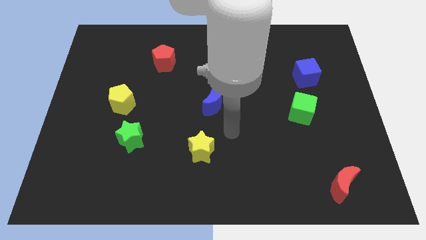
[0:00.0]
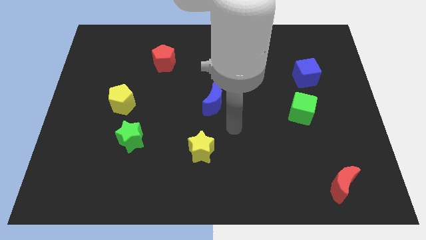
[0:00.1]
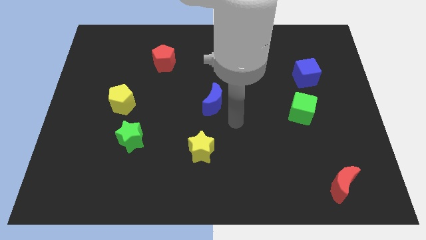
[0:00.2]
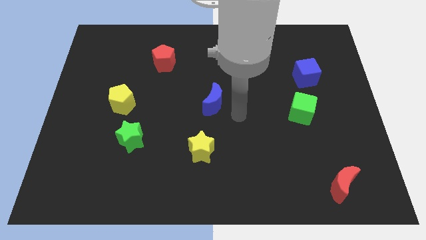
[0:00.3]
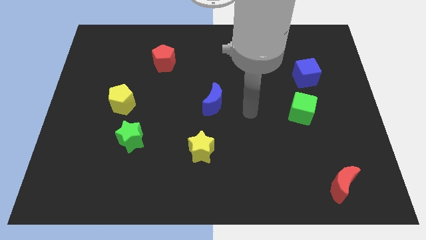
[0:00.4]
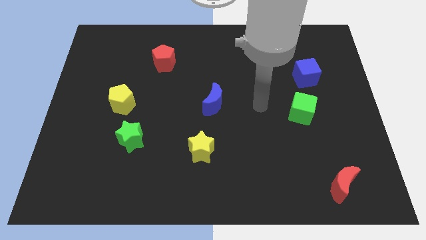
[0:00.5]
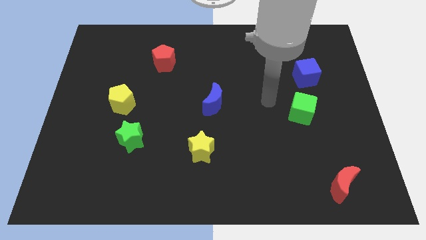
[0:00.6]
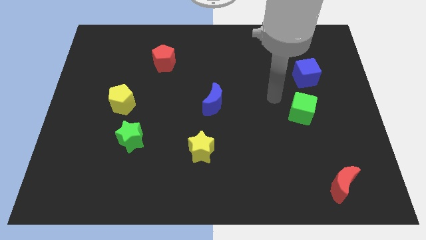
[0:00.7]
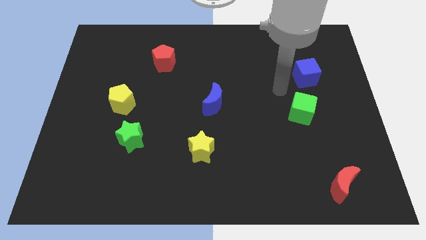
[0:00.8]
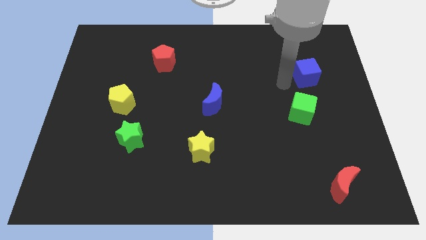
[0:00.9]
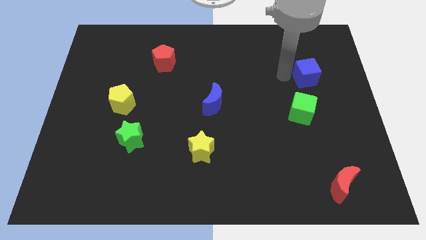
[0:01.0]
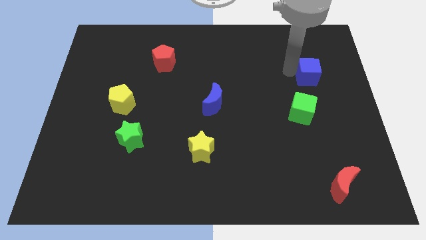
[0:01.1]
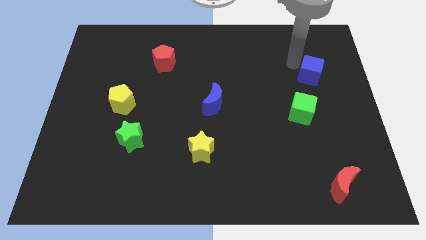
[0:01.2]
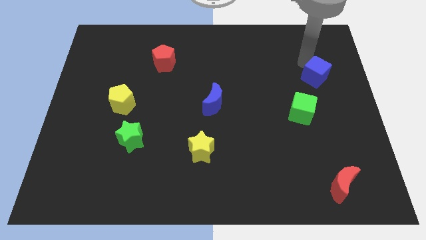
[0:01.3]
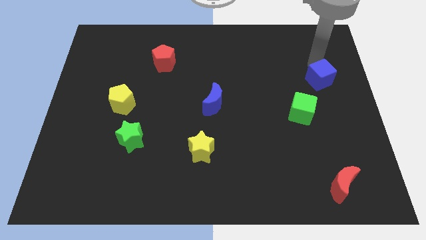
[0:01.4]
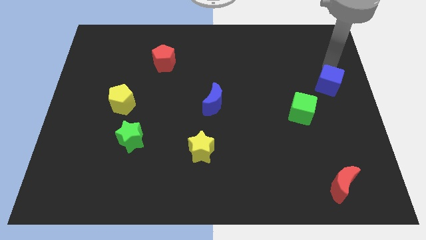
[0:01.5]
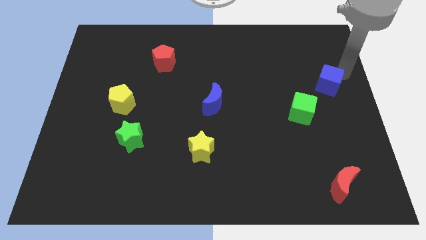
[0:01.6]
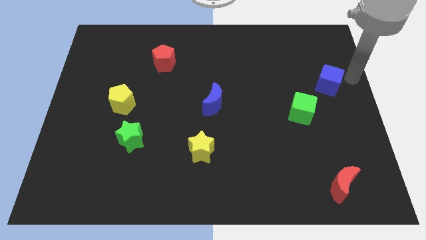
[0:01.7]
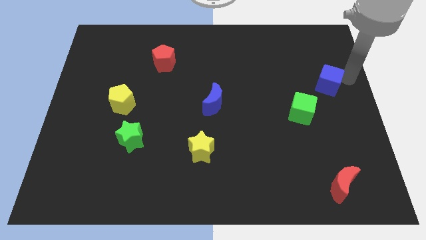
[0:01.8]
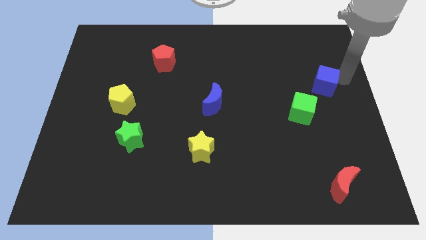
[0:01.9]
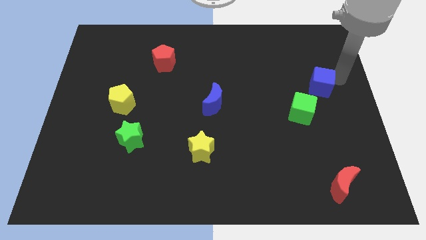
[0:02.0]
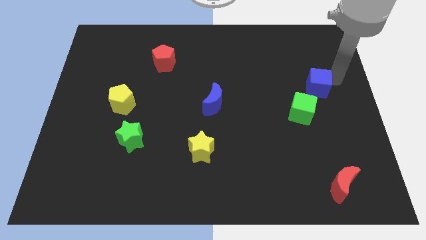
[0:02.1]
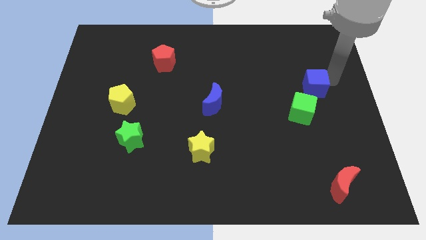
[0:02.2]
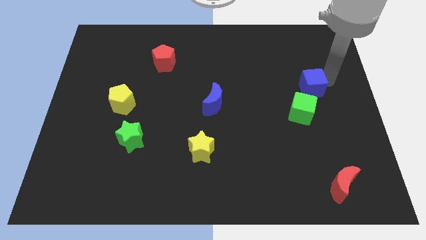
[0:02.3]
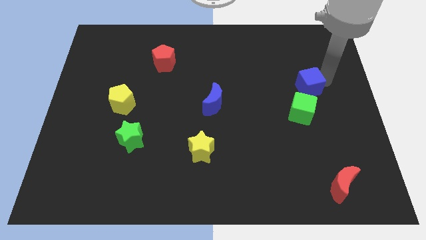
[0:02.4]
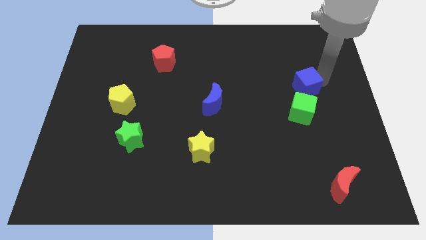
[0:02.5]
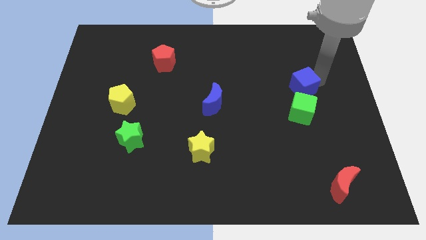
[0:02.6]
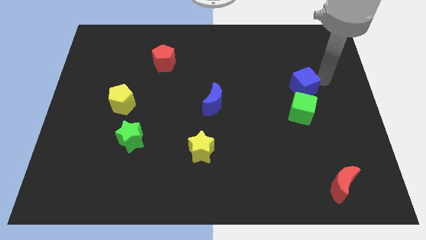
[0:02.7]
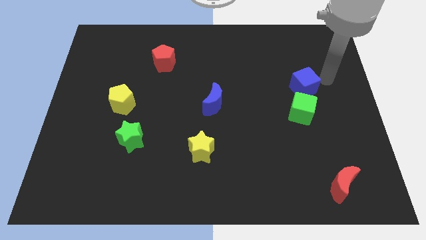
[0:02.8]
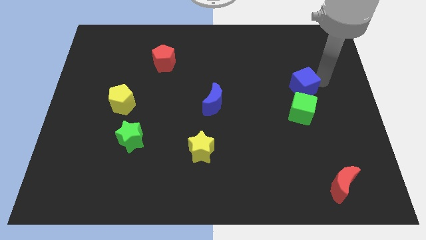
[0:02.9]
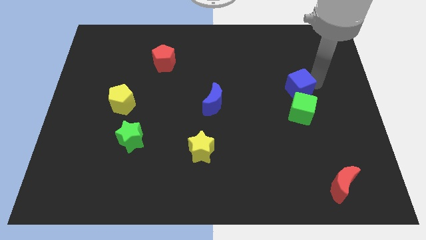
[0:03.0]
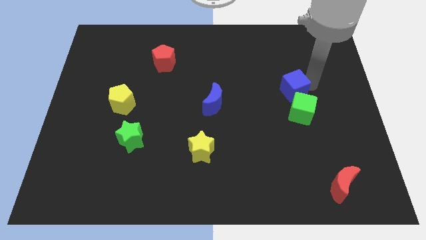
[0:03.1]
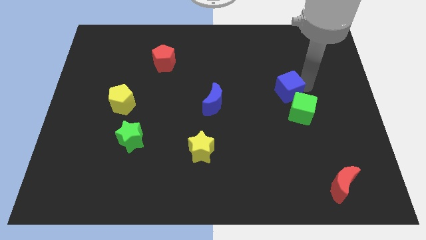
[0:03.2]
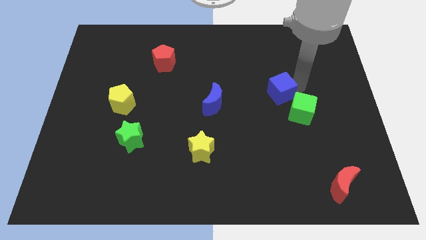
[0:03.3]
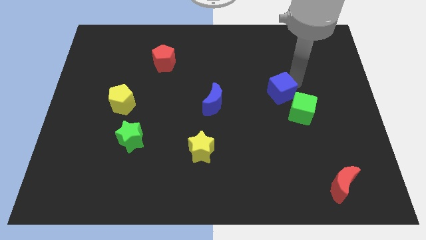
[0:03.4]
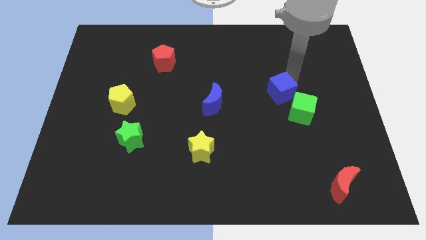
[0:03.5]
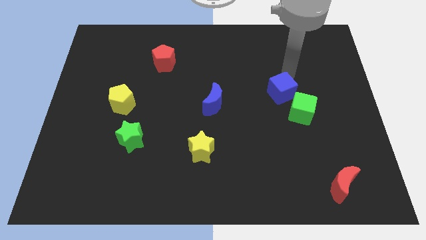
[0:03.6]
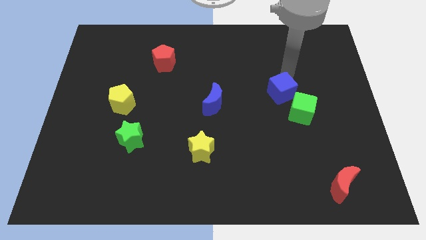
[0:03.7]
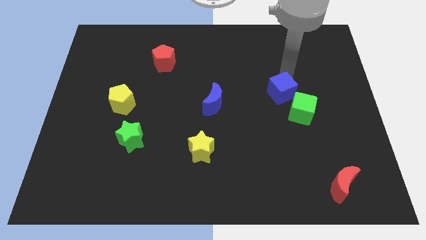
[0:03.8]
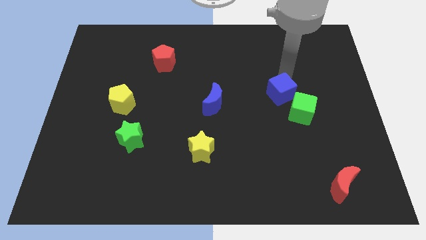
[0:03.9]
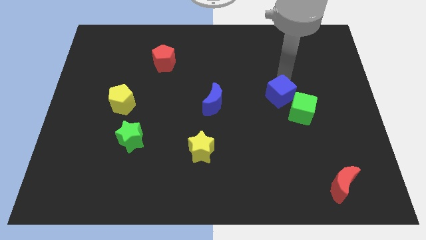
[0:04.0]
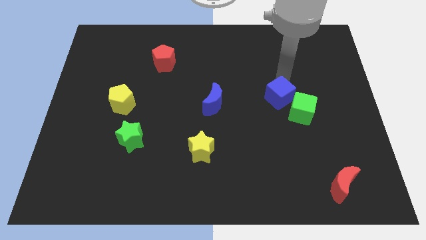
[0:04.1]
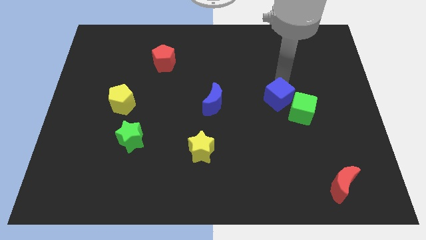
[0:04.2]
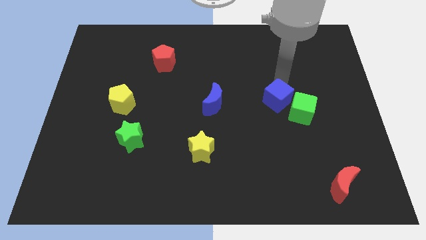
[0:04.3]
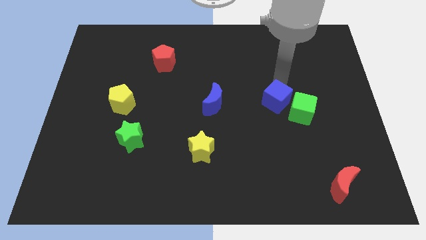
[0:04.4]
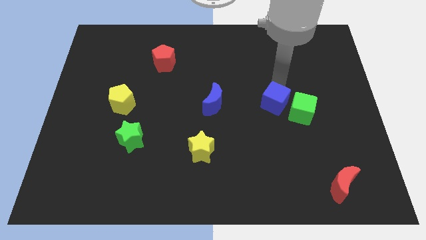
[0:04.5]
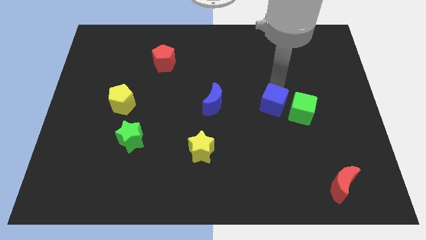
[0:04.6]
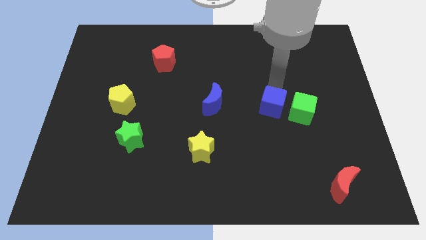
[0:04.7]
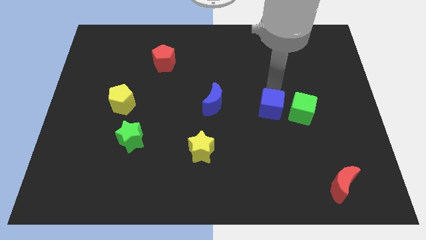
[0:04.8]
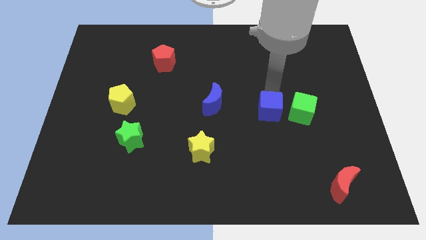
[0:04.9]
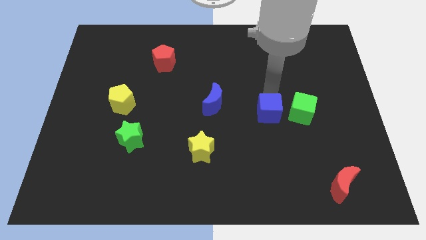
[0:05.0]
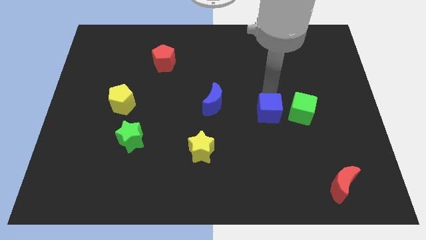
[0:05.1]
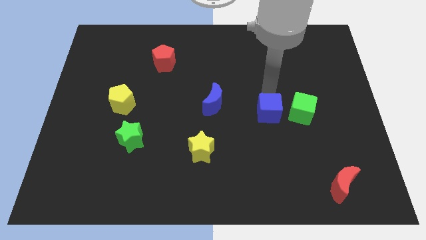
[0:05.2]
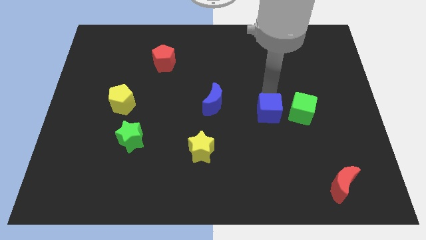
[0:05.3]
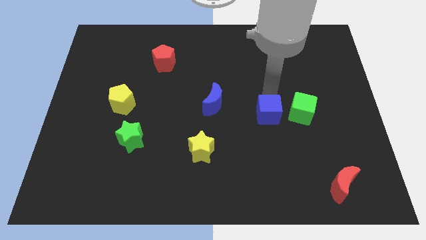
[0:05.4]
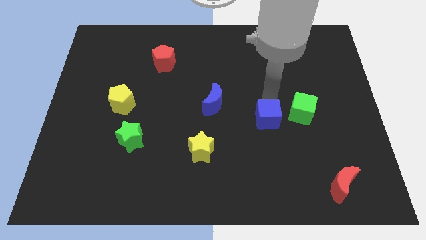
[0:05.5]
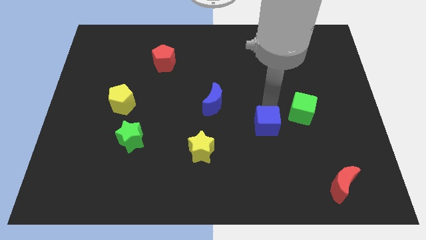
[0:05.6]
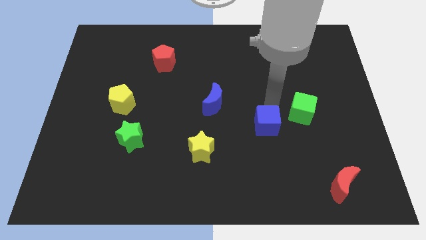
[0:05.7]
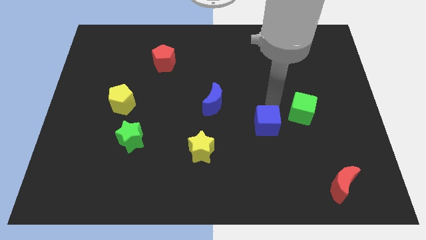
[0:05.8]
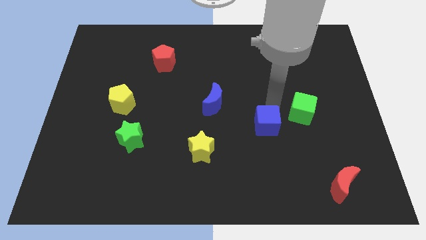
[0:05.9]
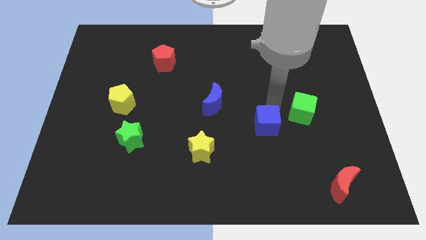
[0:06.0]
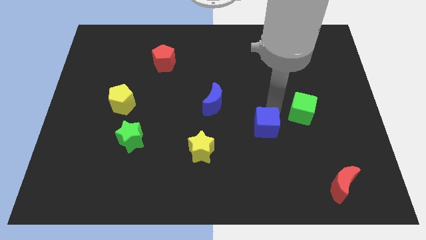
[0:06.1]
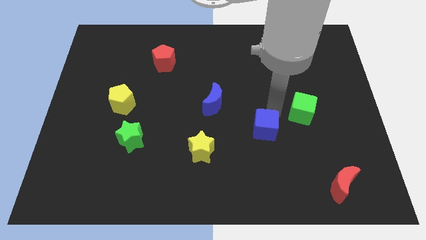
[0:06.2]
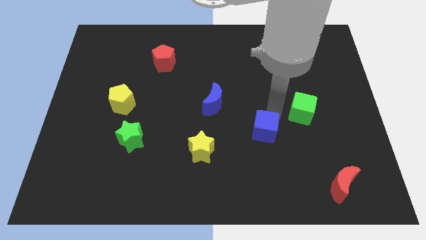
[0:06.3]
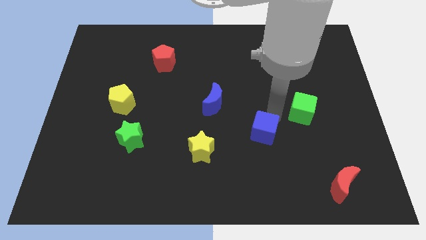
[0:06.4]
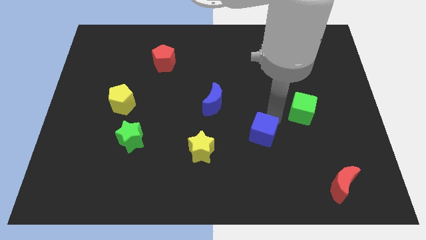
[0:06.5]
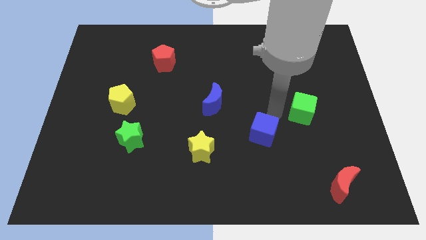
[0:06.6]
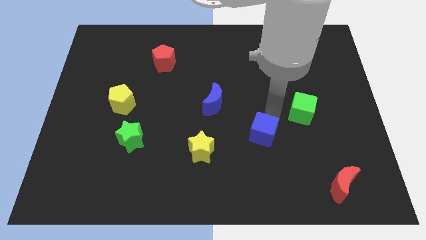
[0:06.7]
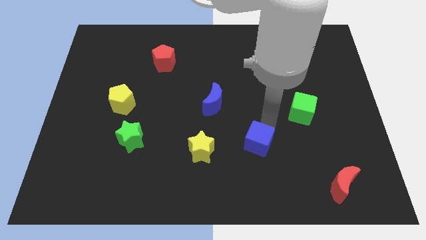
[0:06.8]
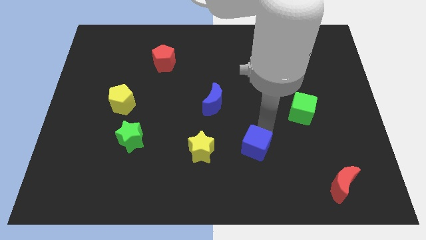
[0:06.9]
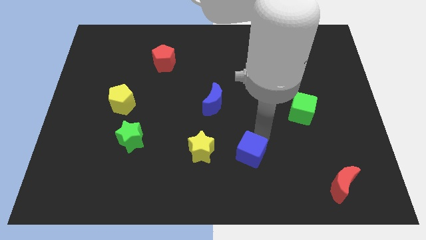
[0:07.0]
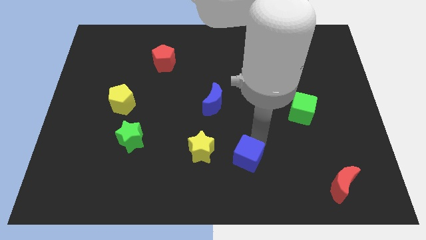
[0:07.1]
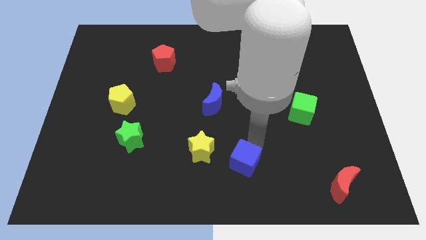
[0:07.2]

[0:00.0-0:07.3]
put the blue cube to the bottom
